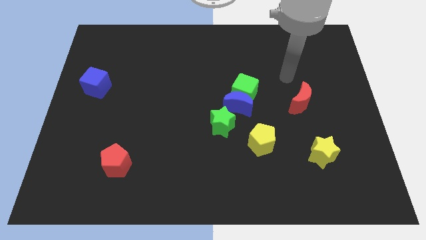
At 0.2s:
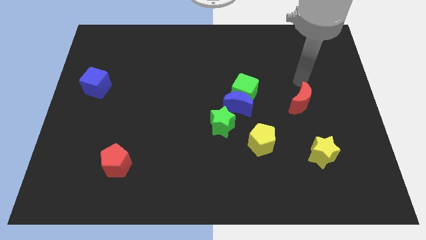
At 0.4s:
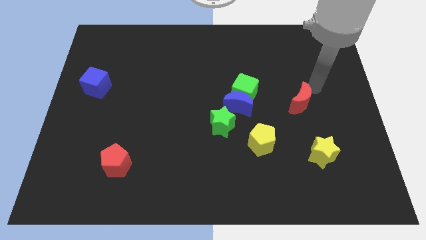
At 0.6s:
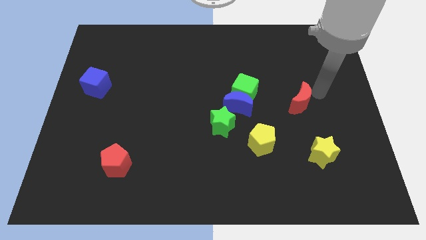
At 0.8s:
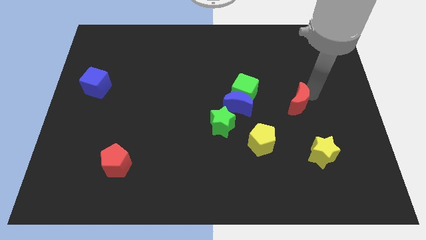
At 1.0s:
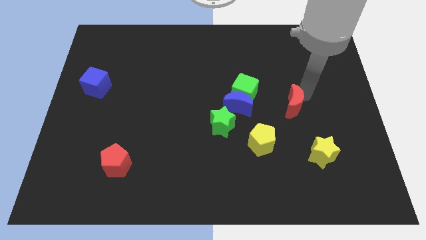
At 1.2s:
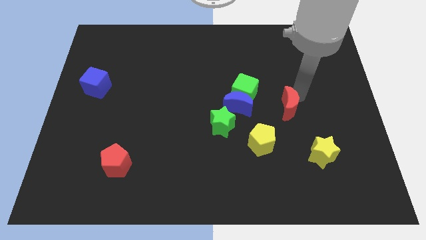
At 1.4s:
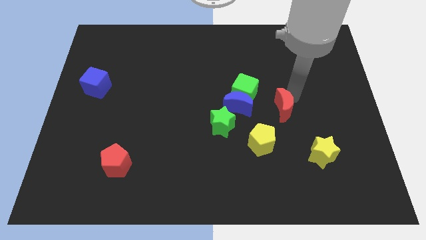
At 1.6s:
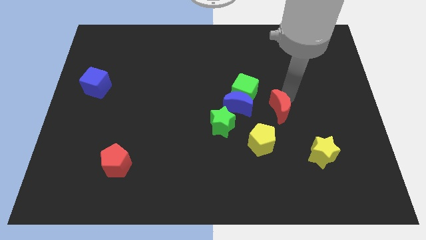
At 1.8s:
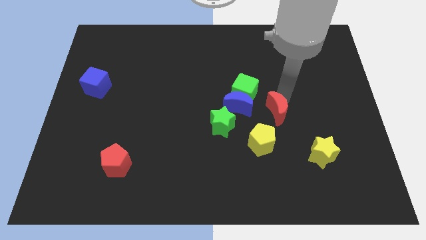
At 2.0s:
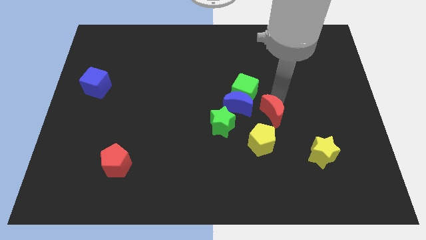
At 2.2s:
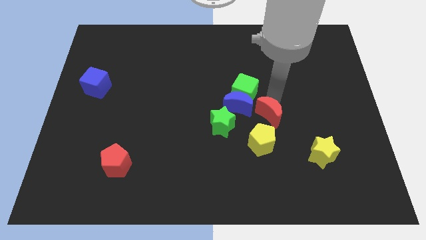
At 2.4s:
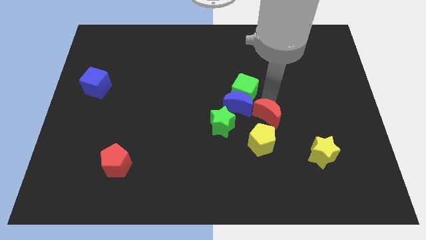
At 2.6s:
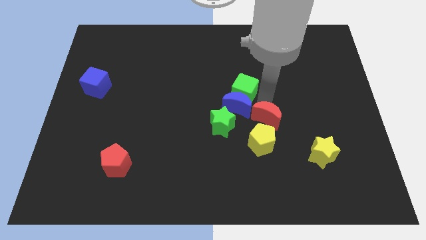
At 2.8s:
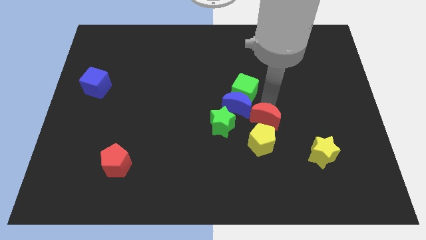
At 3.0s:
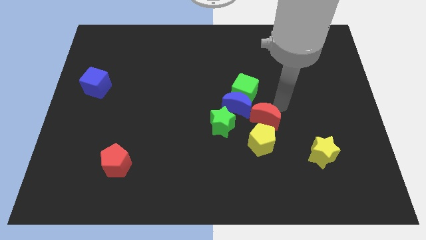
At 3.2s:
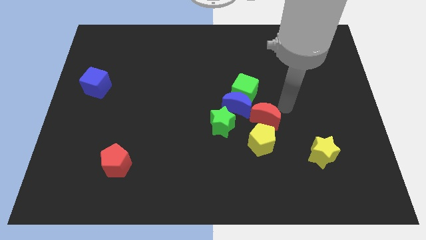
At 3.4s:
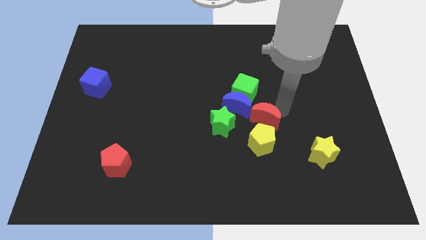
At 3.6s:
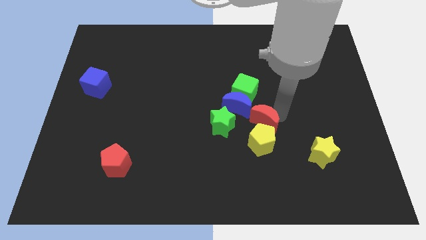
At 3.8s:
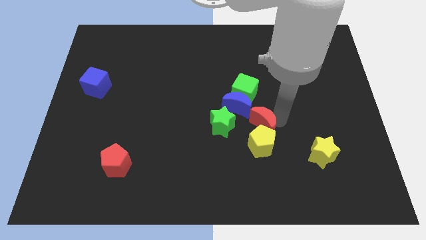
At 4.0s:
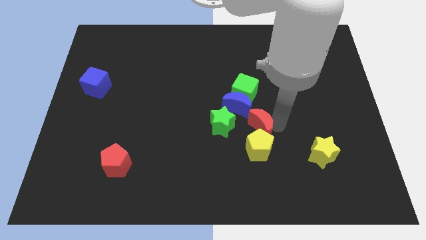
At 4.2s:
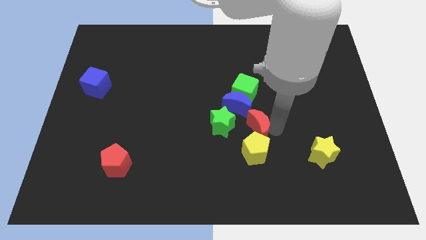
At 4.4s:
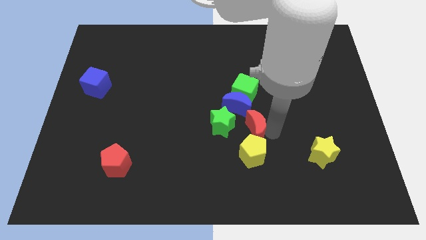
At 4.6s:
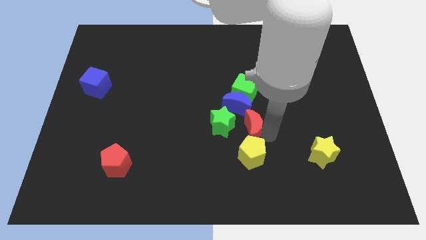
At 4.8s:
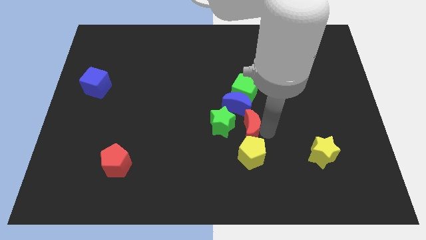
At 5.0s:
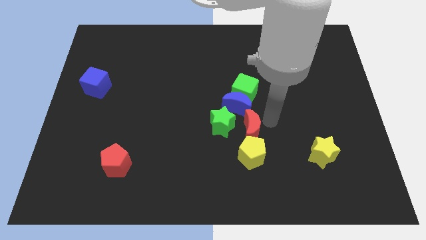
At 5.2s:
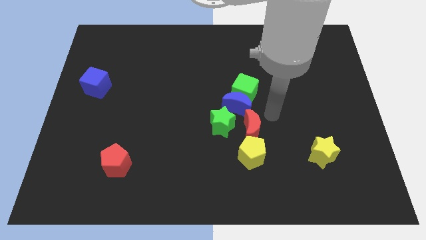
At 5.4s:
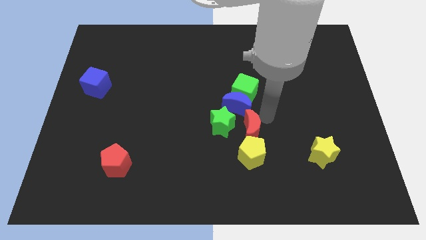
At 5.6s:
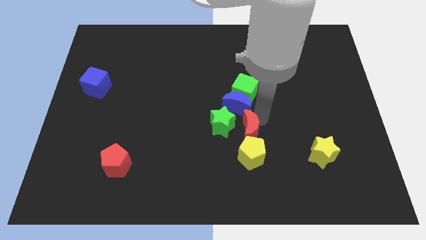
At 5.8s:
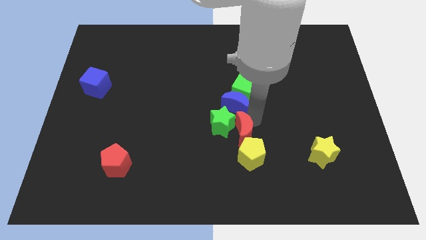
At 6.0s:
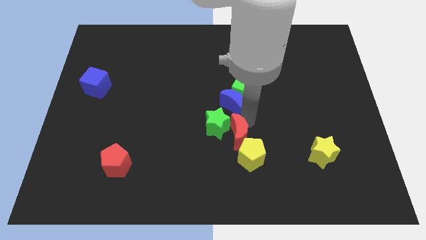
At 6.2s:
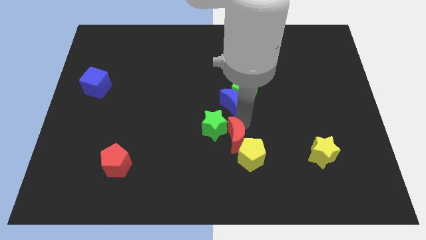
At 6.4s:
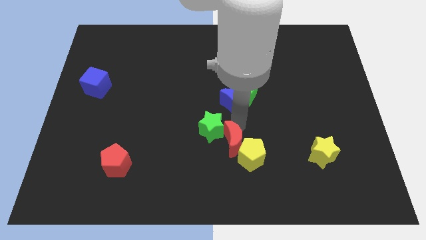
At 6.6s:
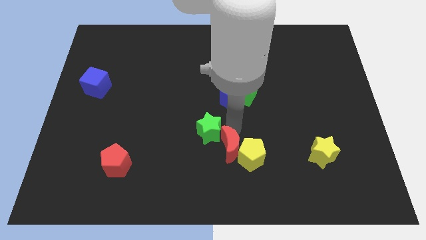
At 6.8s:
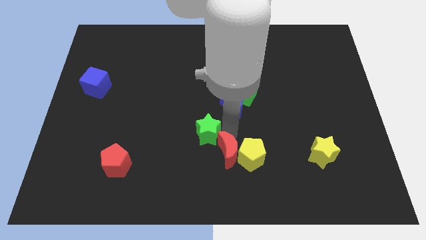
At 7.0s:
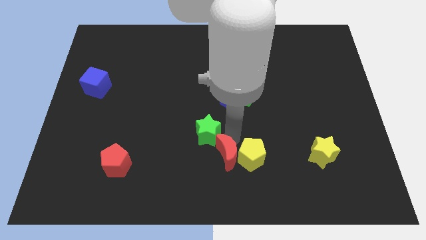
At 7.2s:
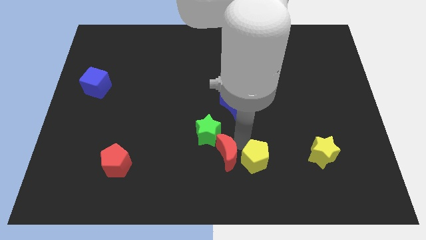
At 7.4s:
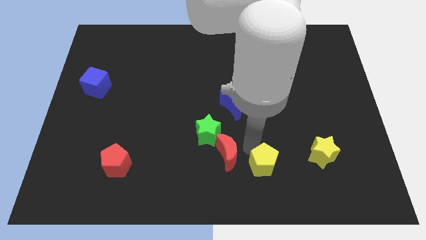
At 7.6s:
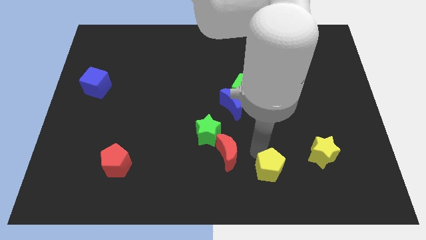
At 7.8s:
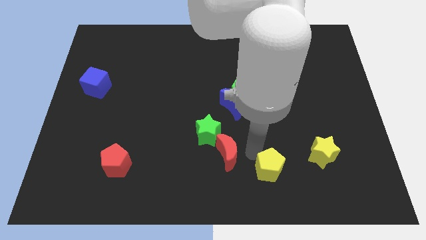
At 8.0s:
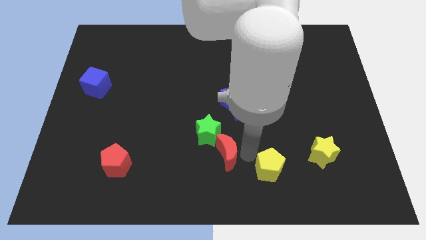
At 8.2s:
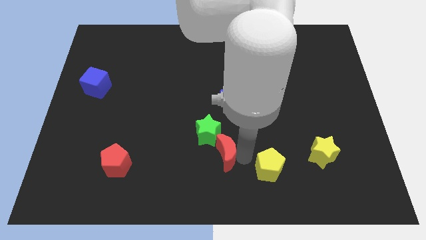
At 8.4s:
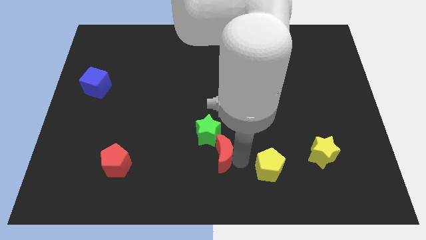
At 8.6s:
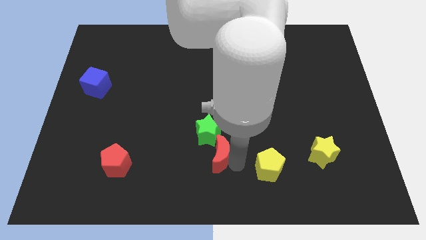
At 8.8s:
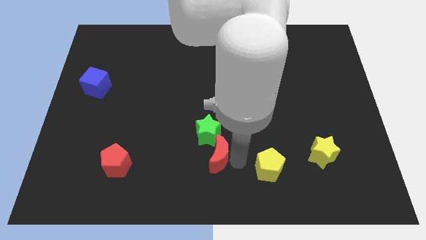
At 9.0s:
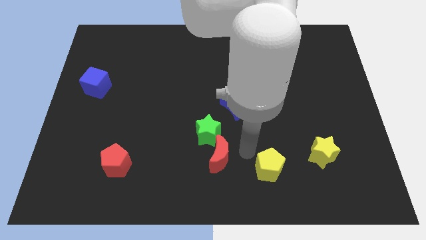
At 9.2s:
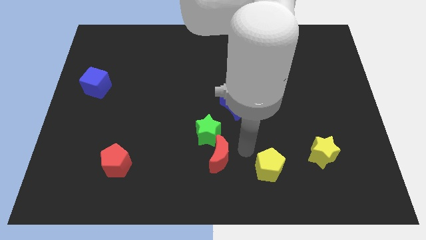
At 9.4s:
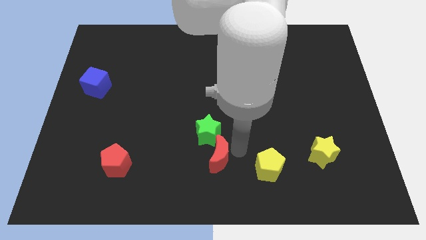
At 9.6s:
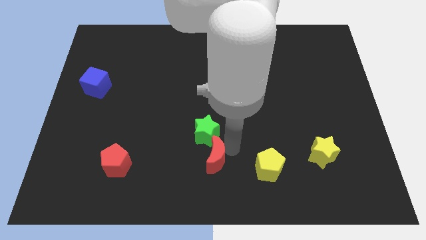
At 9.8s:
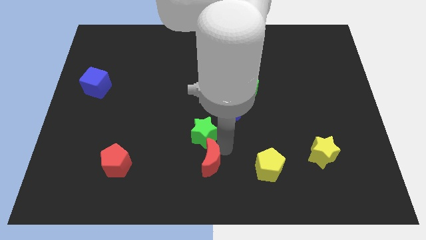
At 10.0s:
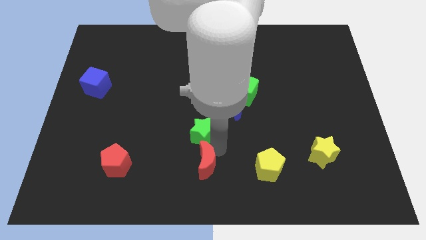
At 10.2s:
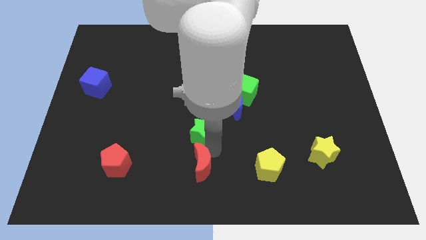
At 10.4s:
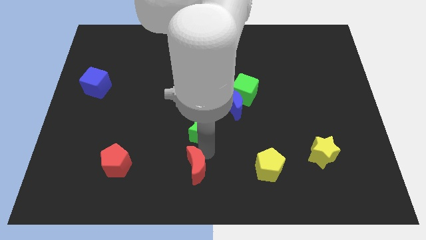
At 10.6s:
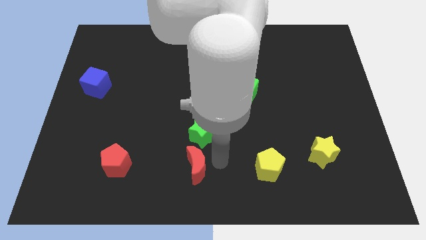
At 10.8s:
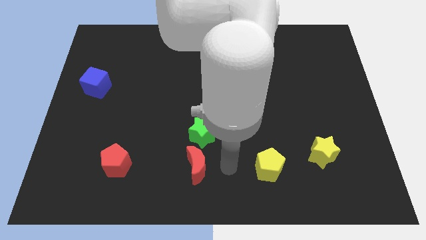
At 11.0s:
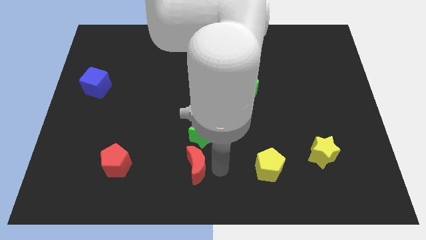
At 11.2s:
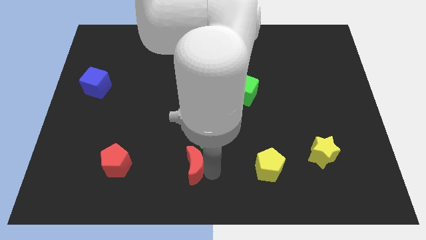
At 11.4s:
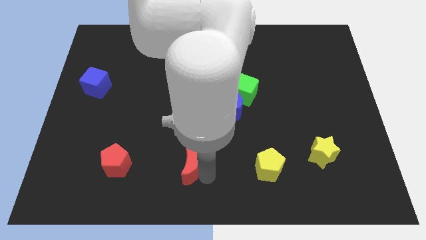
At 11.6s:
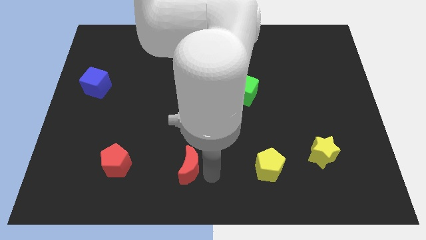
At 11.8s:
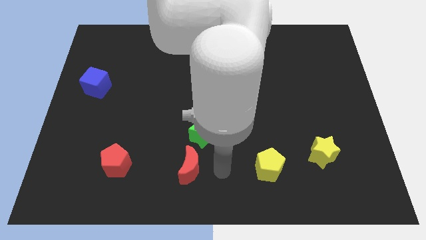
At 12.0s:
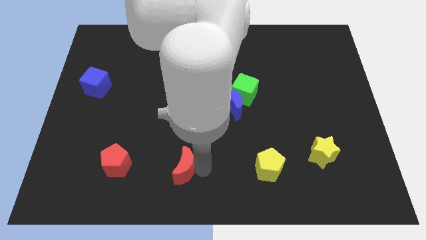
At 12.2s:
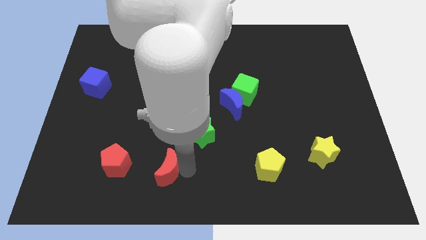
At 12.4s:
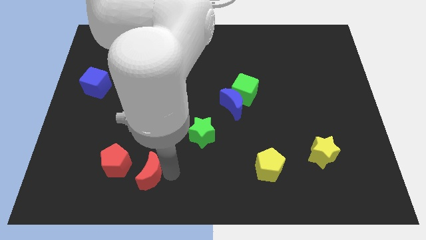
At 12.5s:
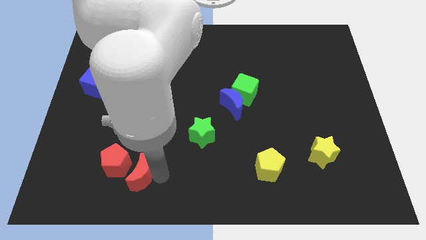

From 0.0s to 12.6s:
push the red moon close to the red pentagon

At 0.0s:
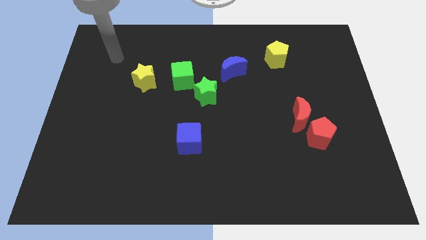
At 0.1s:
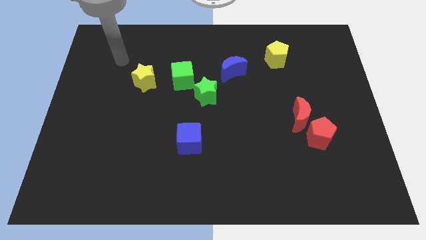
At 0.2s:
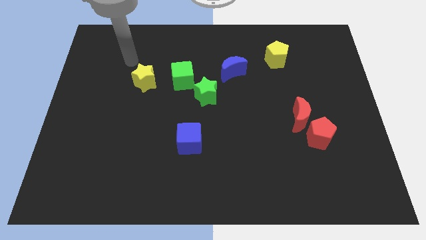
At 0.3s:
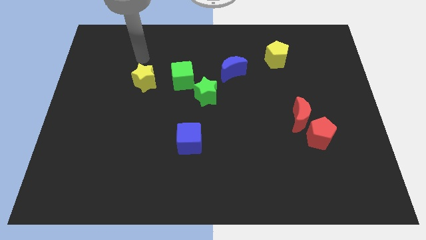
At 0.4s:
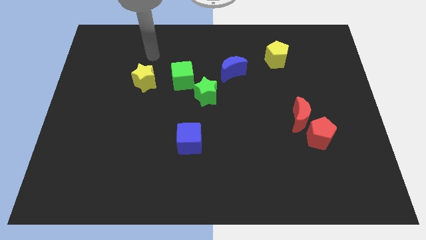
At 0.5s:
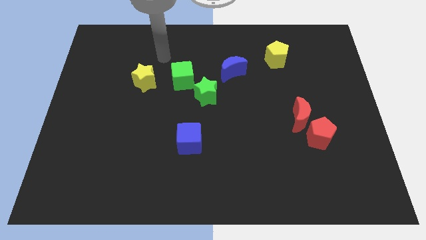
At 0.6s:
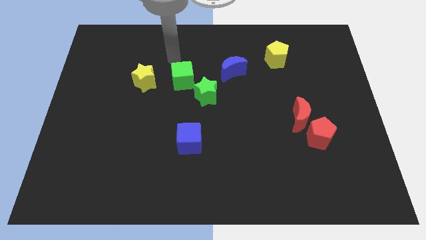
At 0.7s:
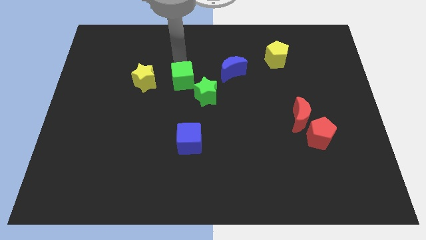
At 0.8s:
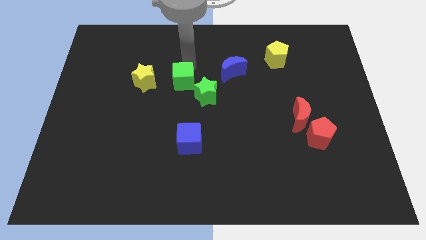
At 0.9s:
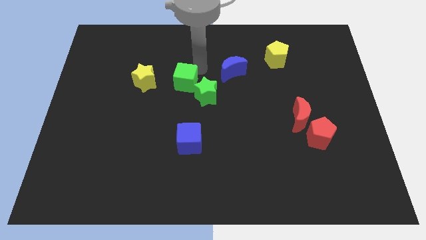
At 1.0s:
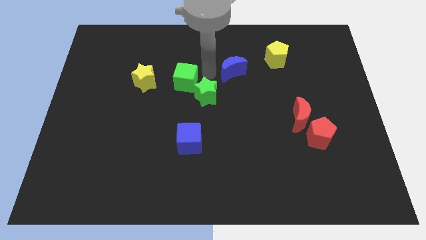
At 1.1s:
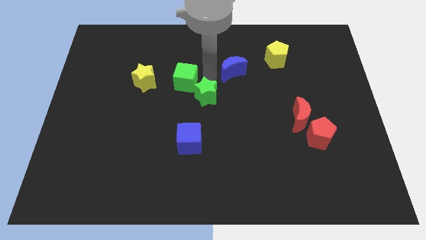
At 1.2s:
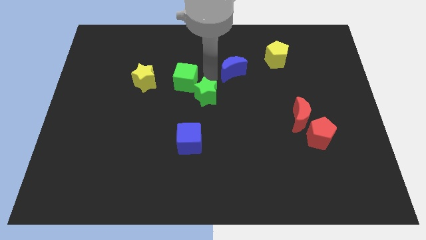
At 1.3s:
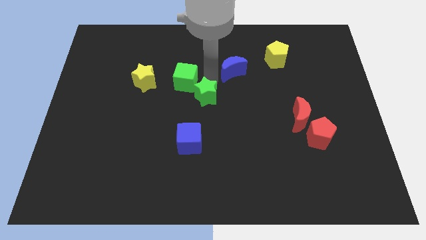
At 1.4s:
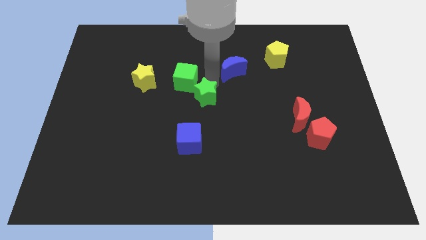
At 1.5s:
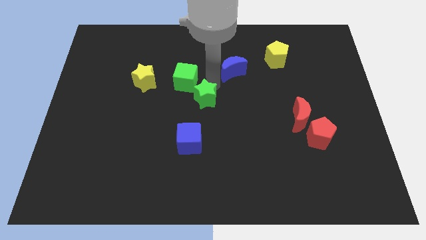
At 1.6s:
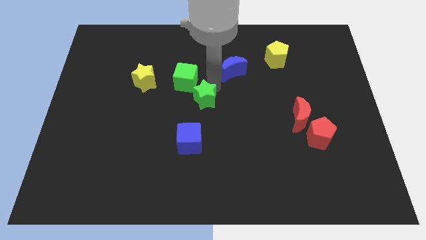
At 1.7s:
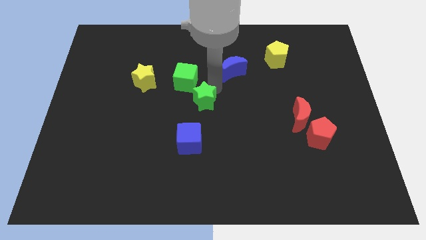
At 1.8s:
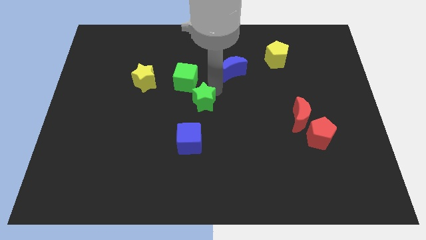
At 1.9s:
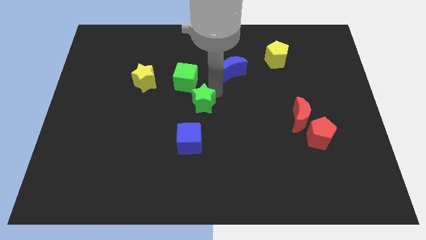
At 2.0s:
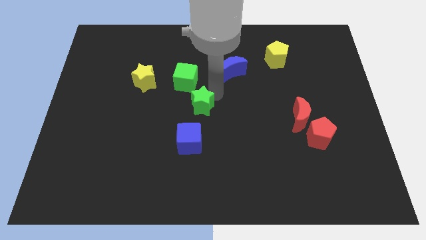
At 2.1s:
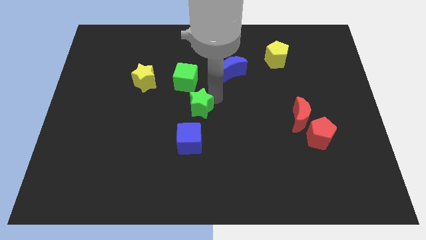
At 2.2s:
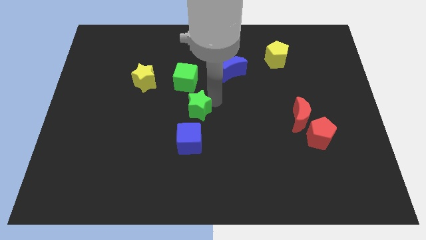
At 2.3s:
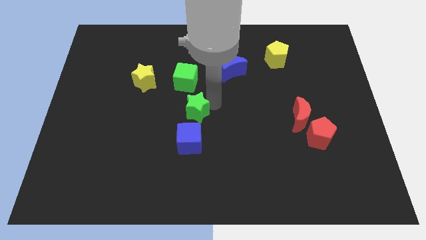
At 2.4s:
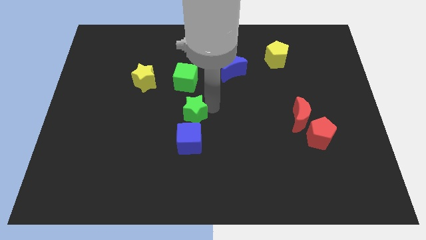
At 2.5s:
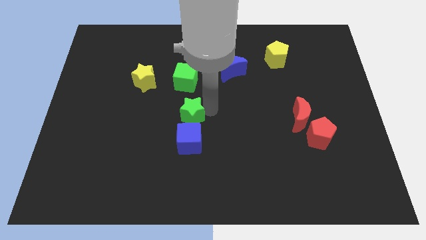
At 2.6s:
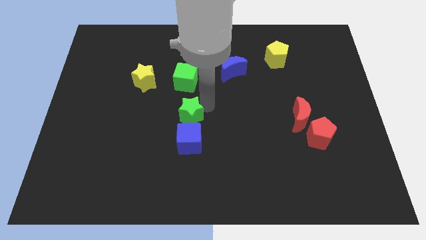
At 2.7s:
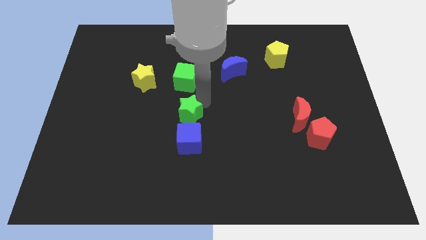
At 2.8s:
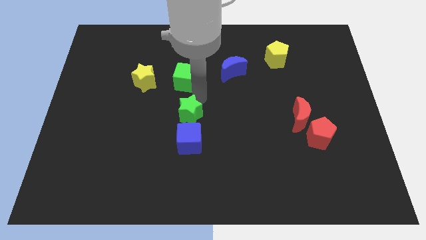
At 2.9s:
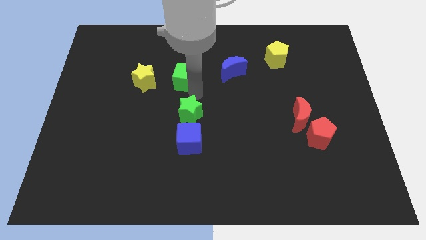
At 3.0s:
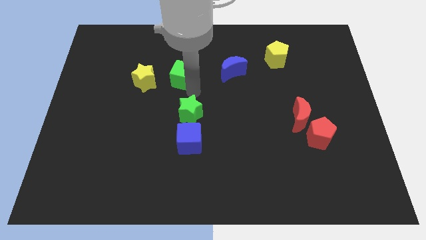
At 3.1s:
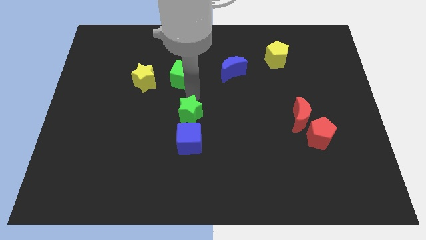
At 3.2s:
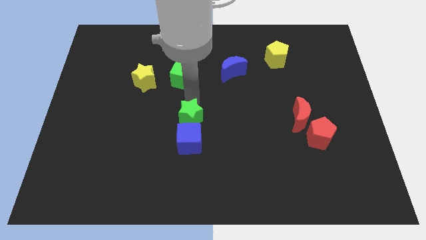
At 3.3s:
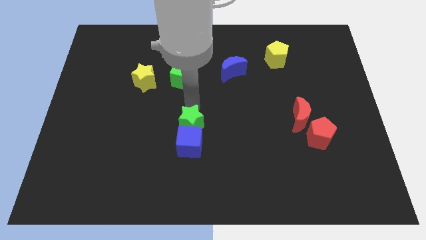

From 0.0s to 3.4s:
slide the green star to the blue cube
